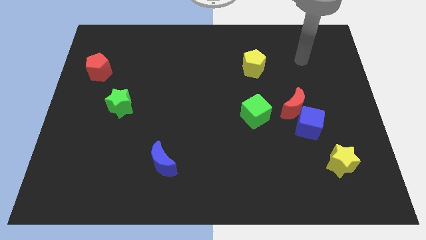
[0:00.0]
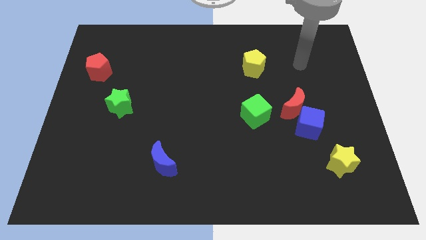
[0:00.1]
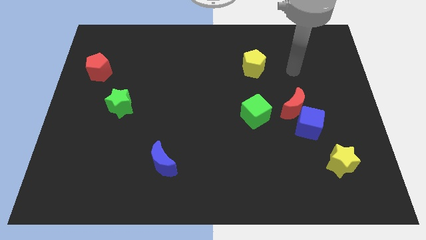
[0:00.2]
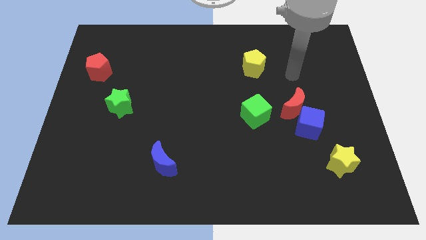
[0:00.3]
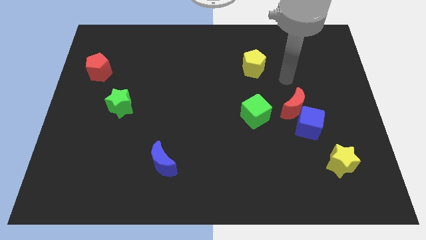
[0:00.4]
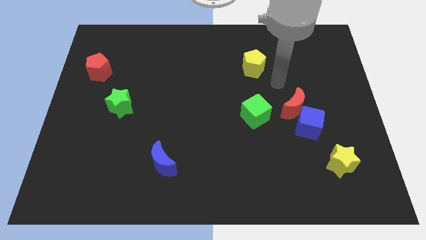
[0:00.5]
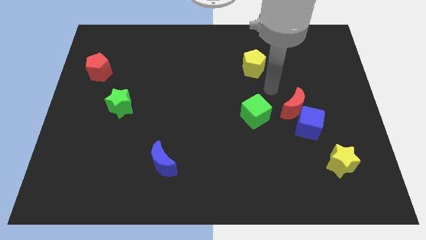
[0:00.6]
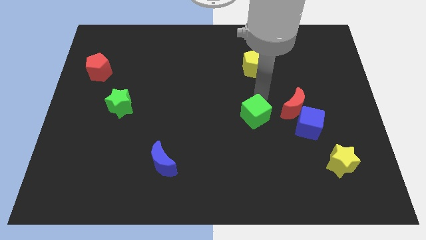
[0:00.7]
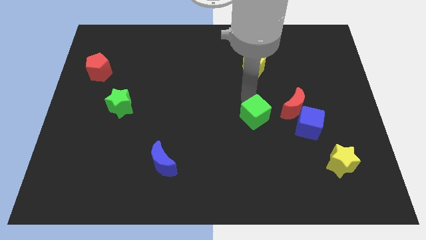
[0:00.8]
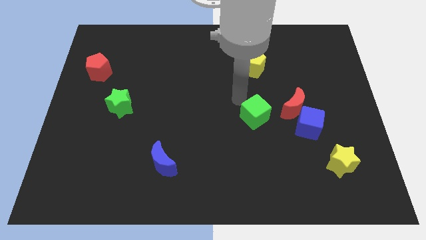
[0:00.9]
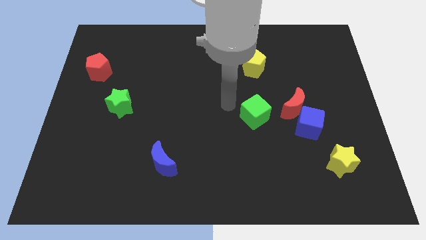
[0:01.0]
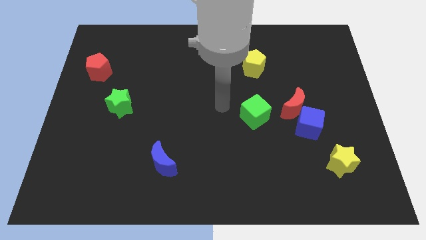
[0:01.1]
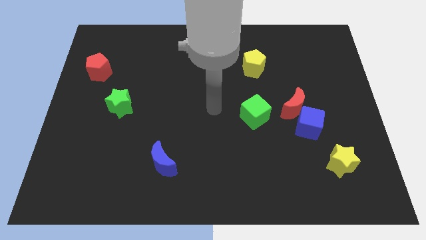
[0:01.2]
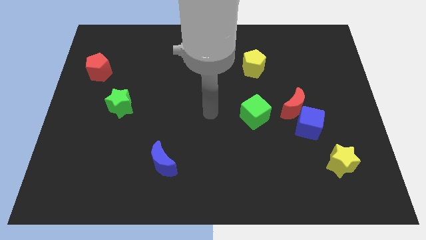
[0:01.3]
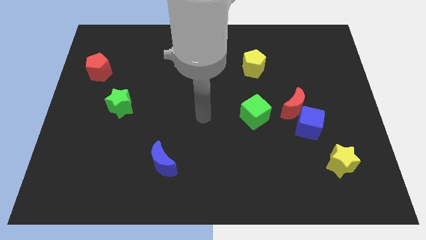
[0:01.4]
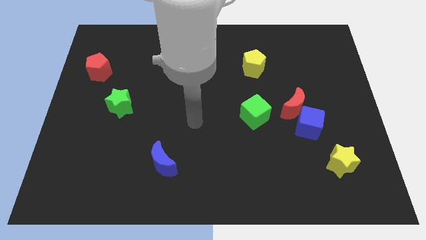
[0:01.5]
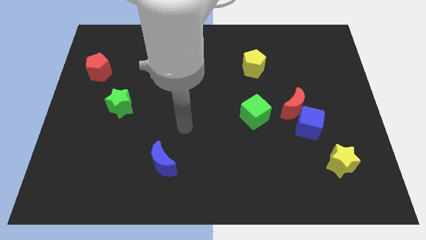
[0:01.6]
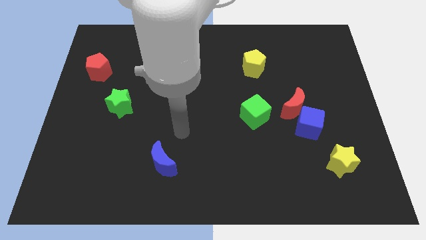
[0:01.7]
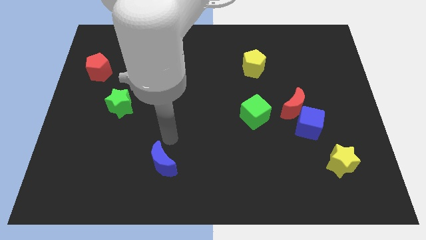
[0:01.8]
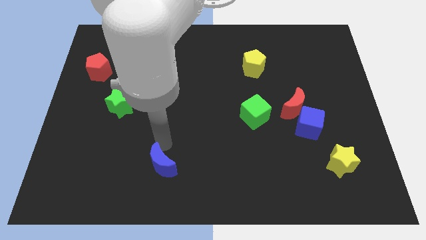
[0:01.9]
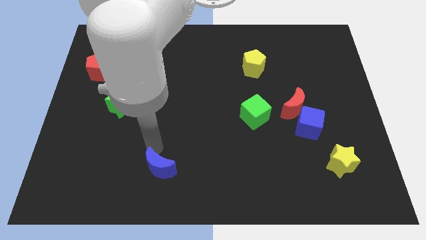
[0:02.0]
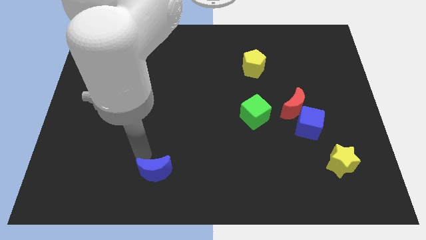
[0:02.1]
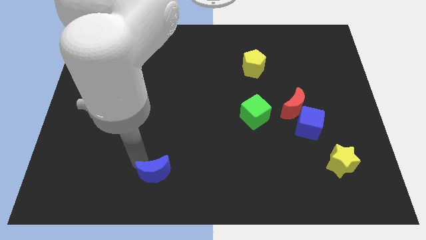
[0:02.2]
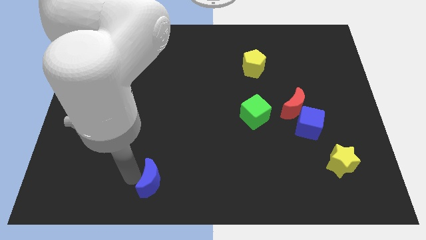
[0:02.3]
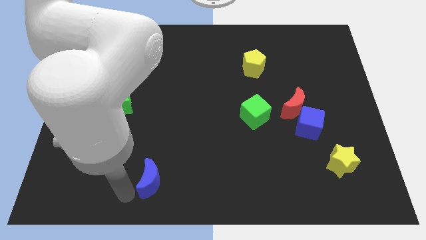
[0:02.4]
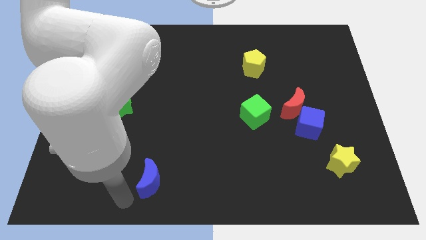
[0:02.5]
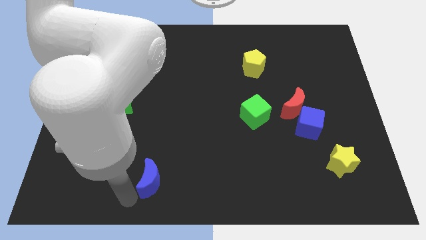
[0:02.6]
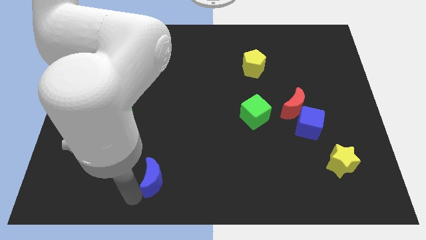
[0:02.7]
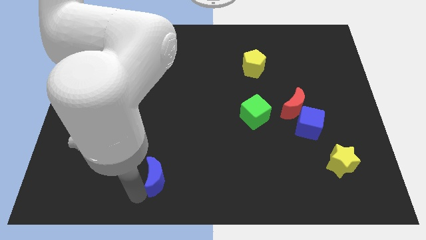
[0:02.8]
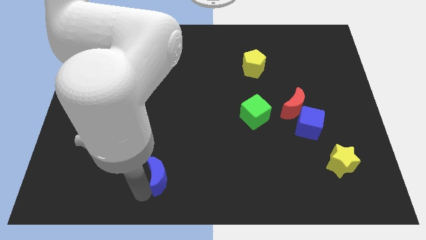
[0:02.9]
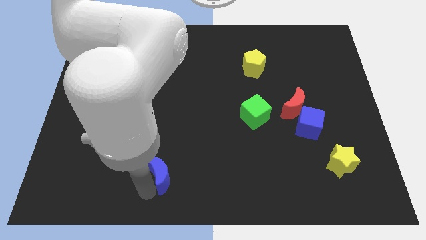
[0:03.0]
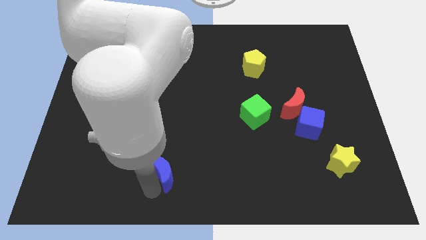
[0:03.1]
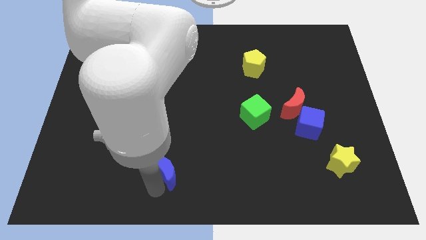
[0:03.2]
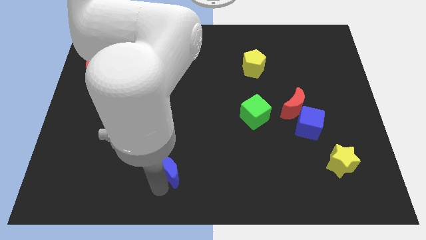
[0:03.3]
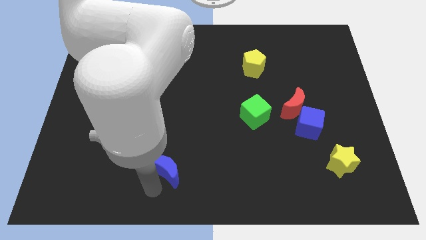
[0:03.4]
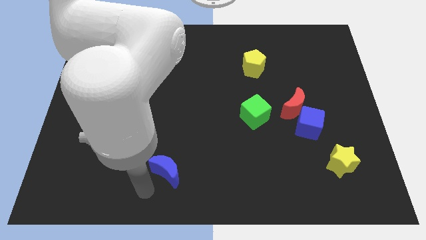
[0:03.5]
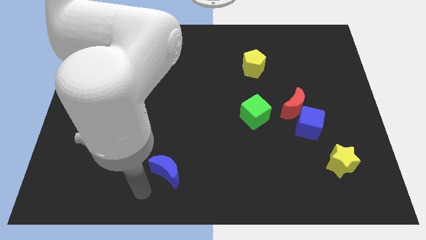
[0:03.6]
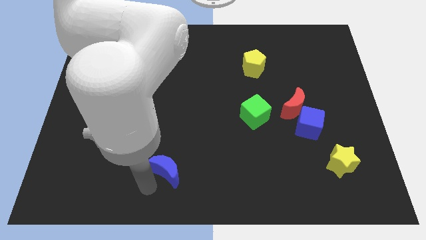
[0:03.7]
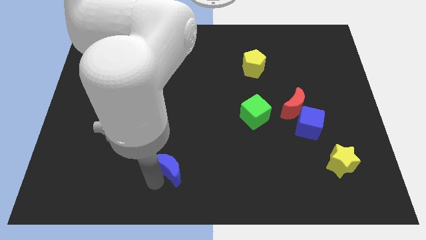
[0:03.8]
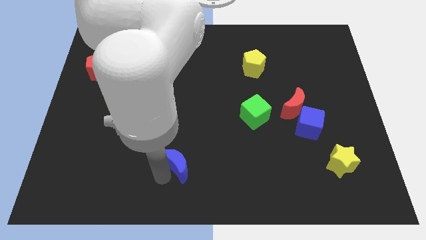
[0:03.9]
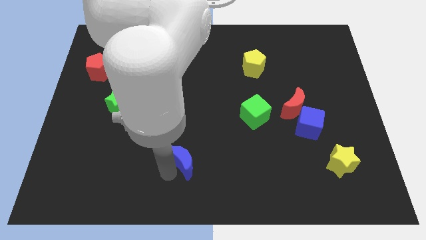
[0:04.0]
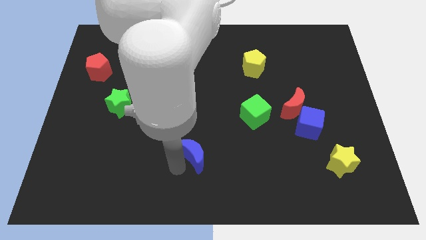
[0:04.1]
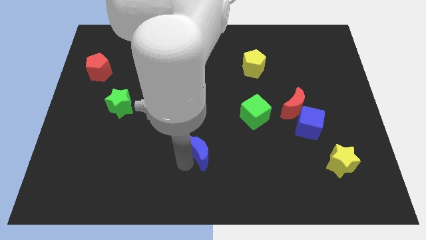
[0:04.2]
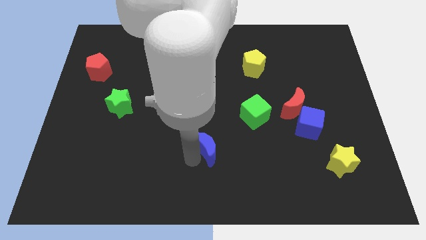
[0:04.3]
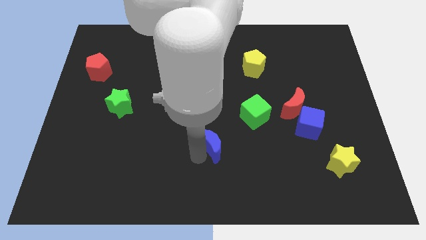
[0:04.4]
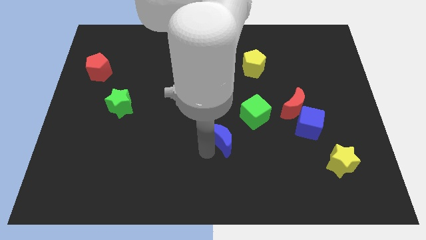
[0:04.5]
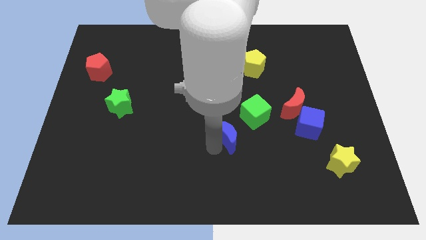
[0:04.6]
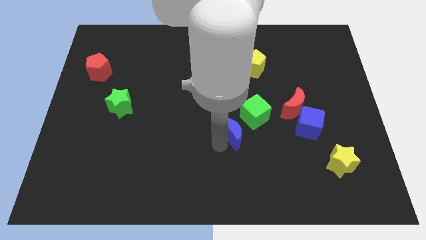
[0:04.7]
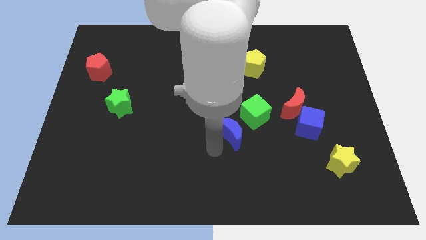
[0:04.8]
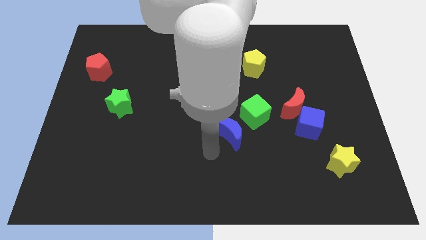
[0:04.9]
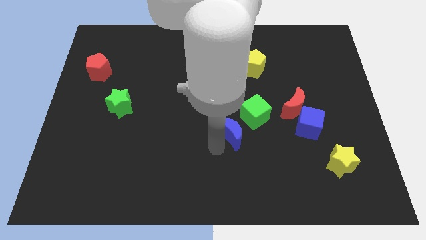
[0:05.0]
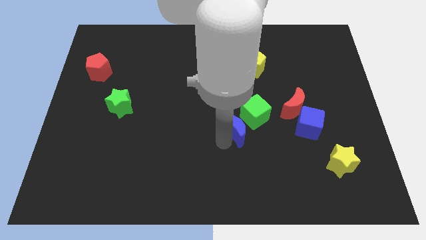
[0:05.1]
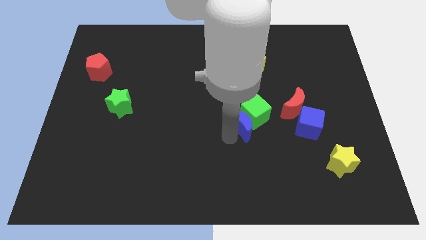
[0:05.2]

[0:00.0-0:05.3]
push the blue moon next to the green cube

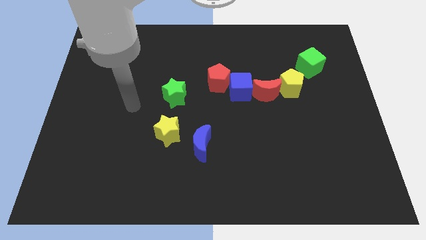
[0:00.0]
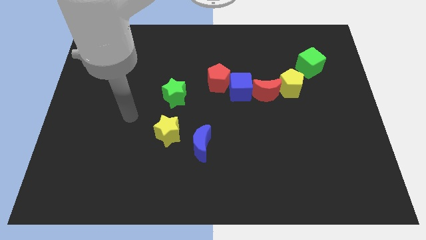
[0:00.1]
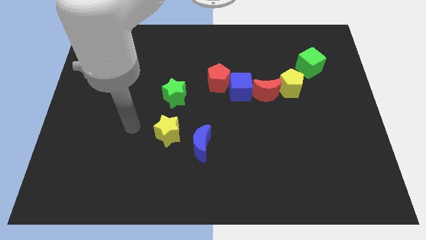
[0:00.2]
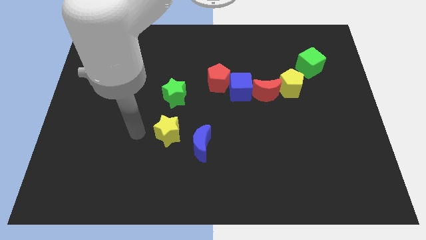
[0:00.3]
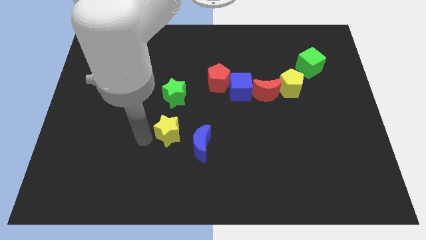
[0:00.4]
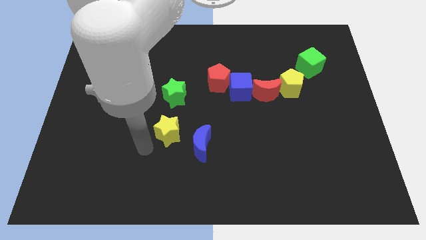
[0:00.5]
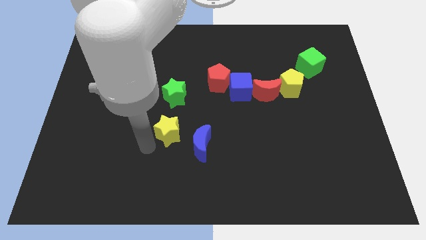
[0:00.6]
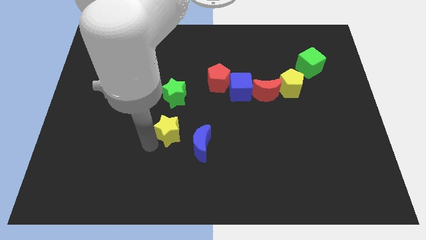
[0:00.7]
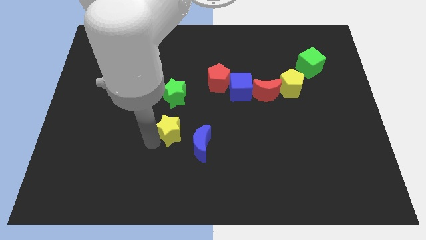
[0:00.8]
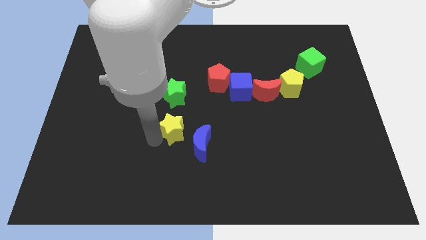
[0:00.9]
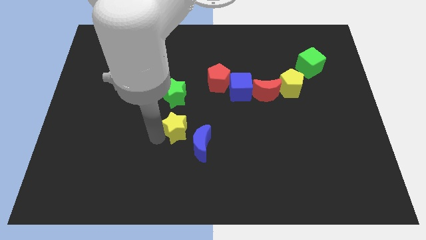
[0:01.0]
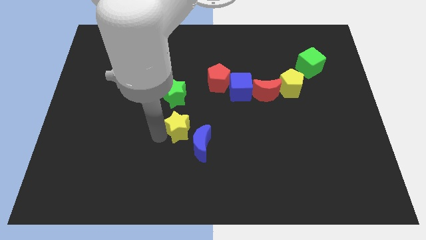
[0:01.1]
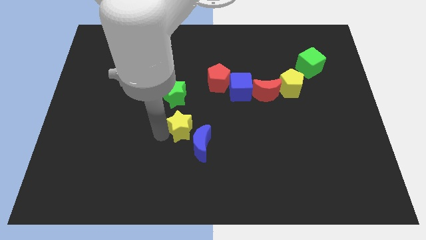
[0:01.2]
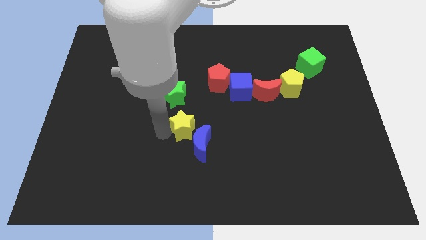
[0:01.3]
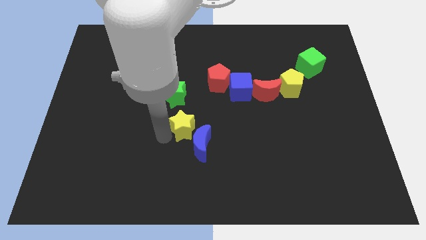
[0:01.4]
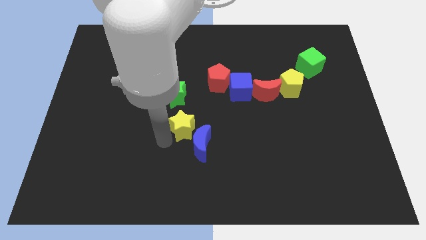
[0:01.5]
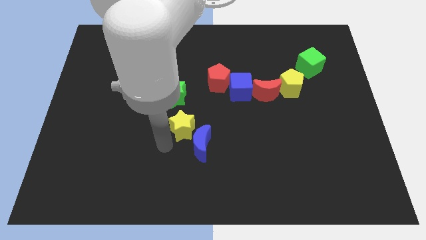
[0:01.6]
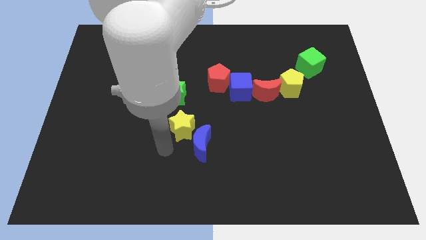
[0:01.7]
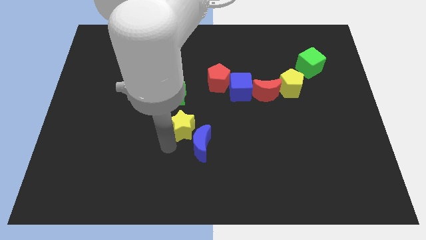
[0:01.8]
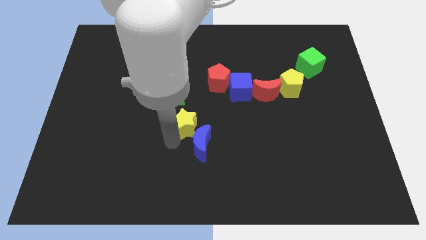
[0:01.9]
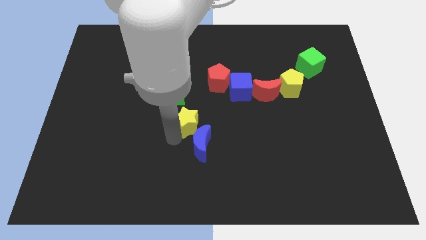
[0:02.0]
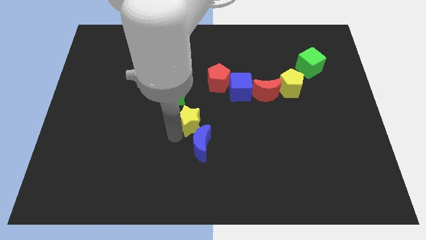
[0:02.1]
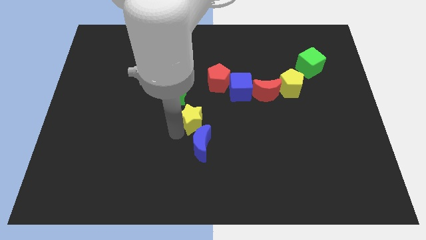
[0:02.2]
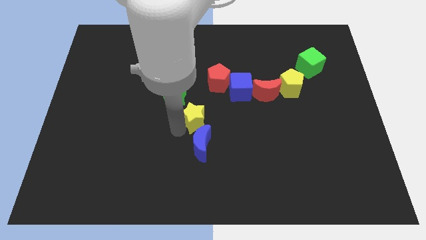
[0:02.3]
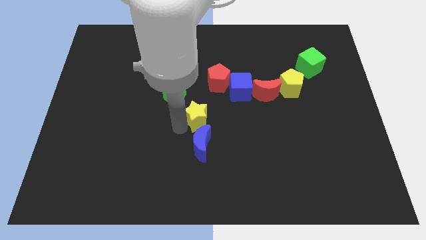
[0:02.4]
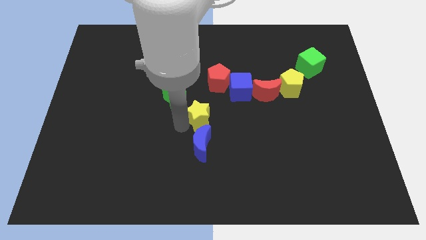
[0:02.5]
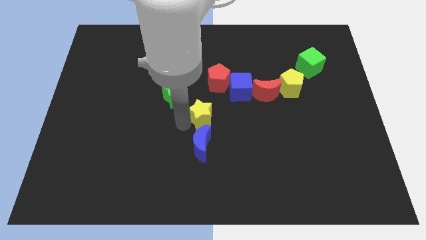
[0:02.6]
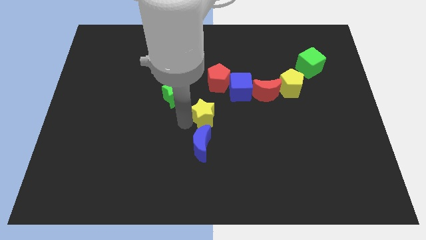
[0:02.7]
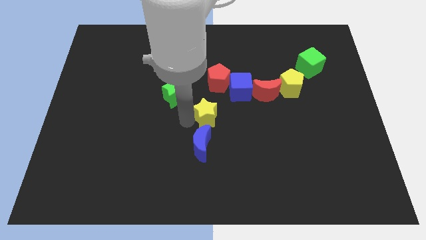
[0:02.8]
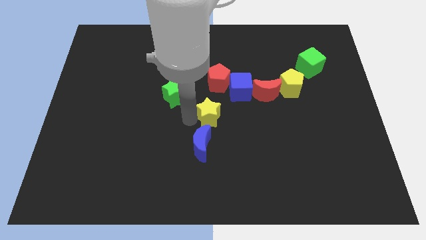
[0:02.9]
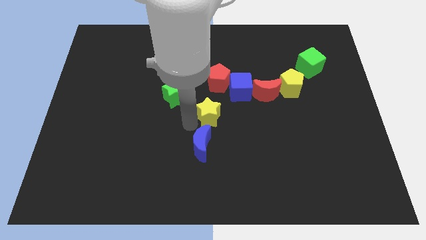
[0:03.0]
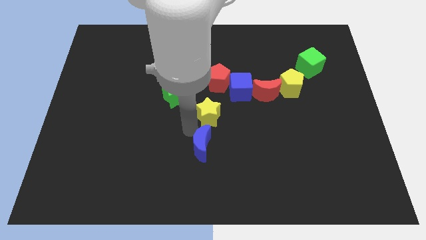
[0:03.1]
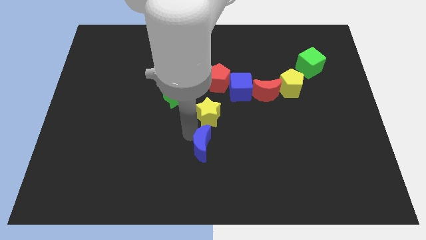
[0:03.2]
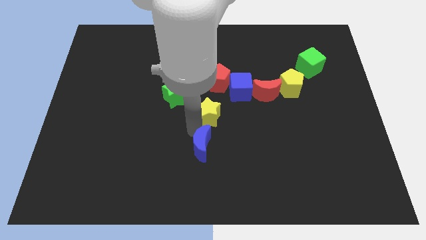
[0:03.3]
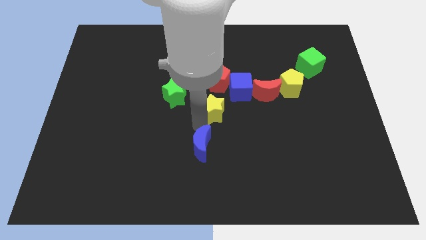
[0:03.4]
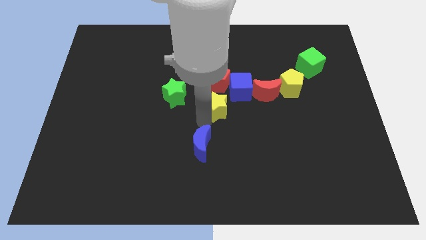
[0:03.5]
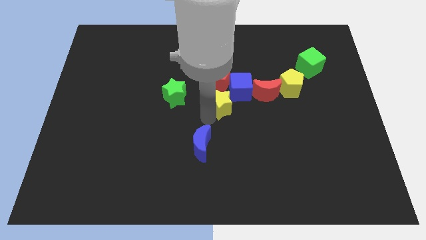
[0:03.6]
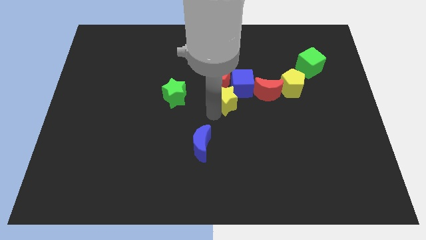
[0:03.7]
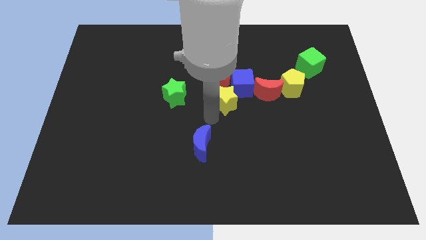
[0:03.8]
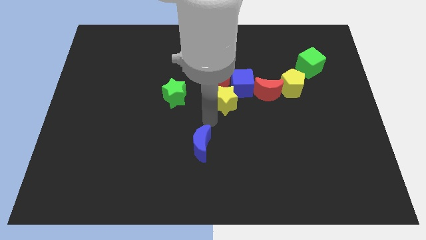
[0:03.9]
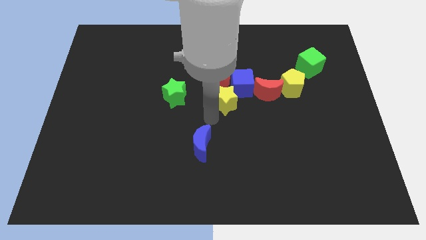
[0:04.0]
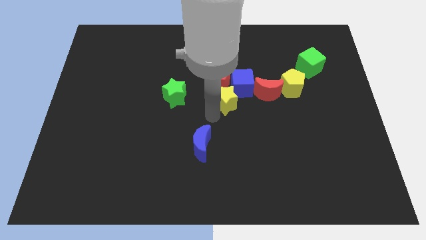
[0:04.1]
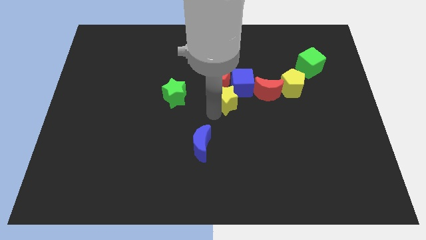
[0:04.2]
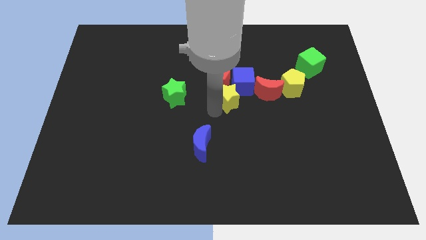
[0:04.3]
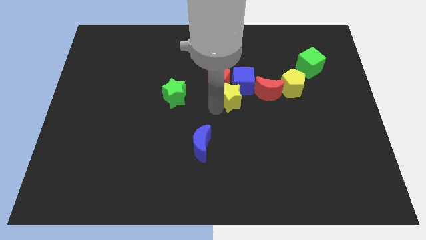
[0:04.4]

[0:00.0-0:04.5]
push the yellow star to the blue cube
